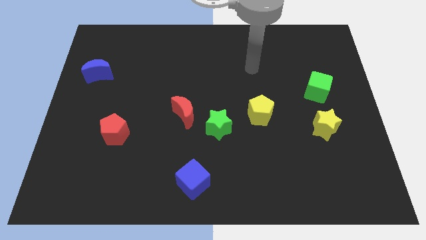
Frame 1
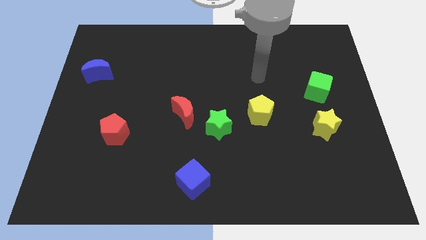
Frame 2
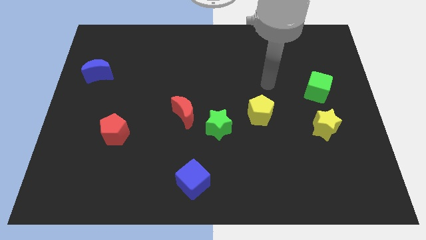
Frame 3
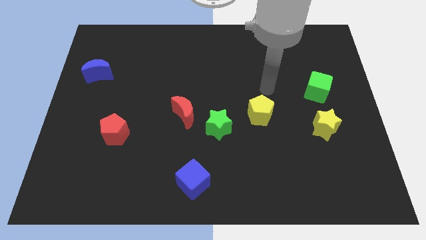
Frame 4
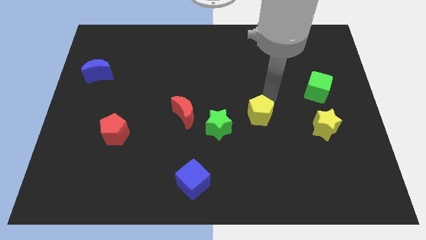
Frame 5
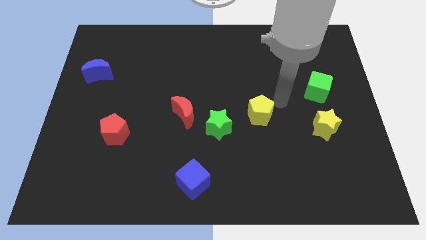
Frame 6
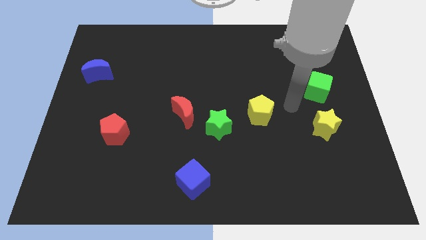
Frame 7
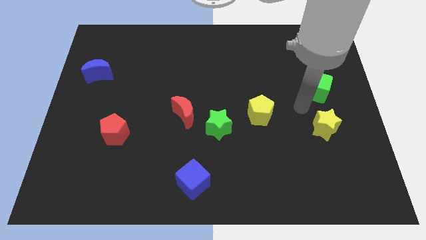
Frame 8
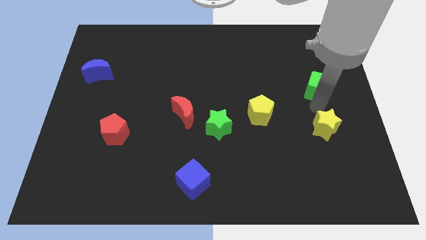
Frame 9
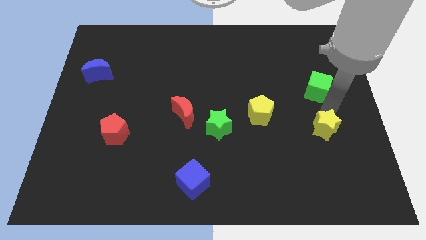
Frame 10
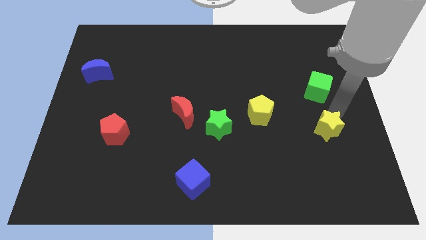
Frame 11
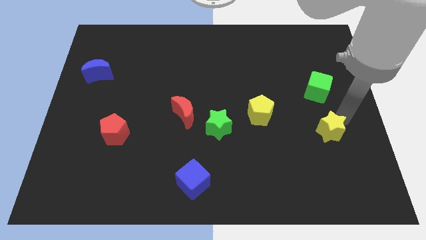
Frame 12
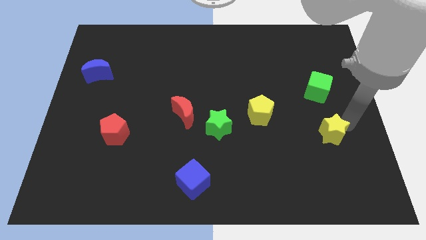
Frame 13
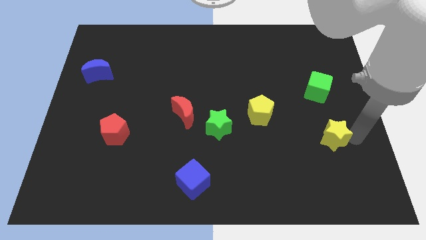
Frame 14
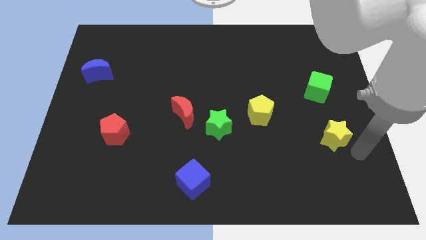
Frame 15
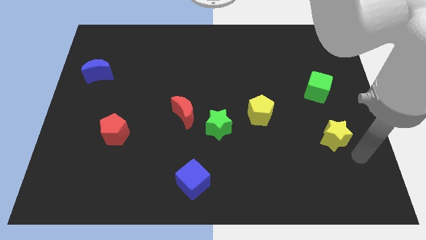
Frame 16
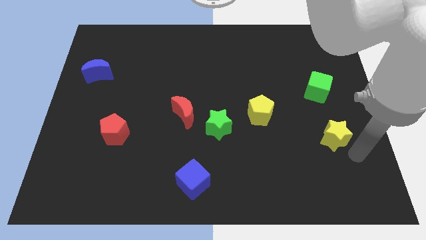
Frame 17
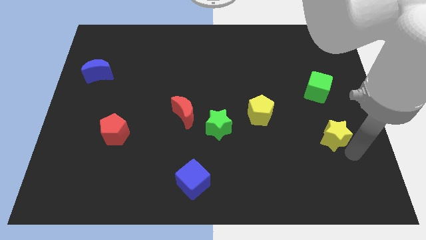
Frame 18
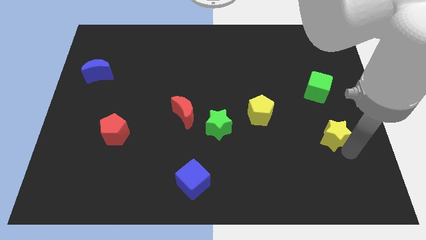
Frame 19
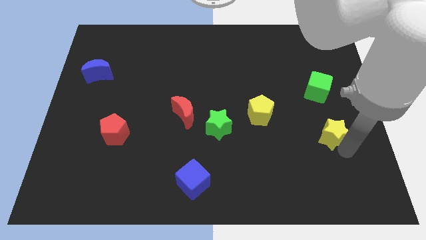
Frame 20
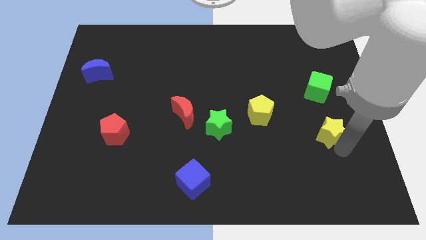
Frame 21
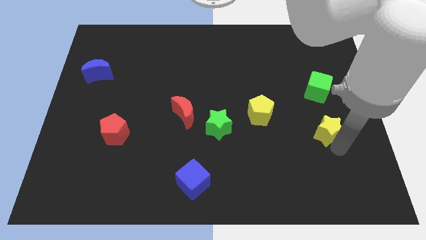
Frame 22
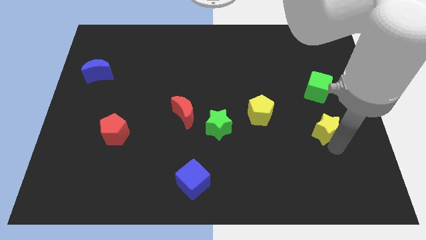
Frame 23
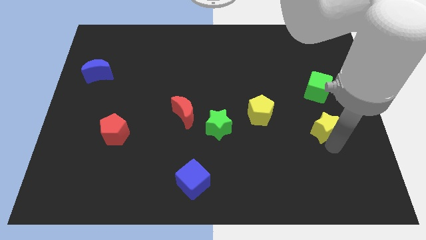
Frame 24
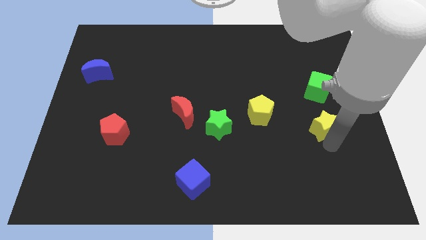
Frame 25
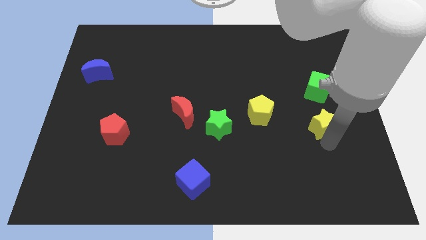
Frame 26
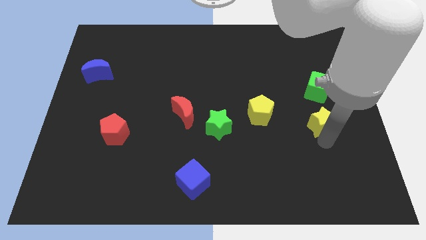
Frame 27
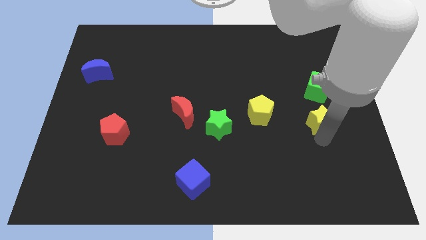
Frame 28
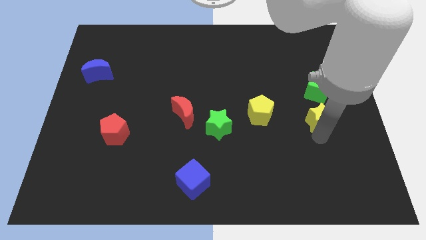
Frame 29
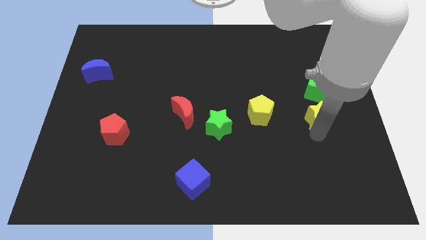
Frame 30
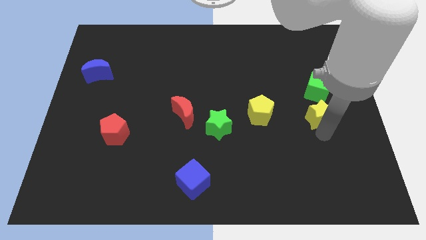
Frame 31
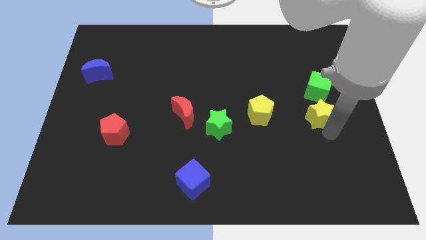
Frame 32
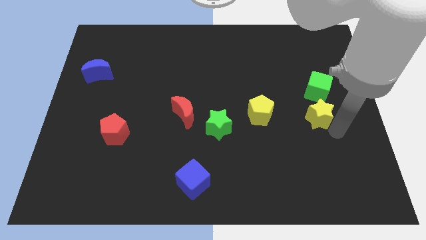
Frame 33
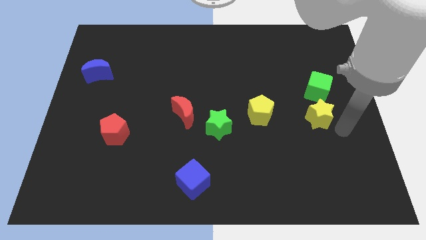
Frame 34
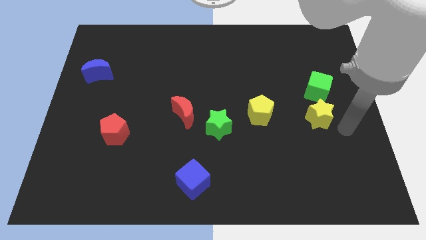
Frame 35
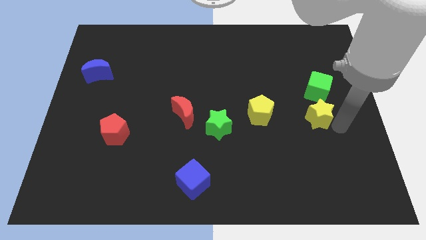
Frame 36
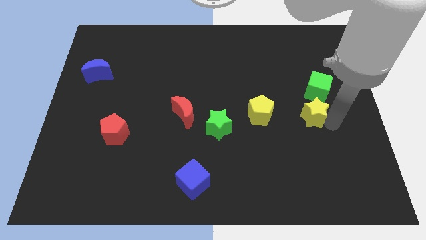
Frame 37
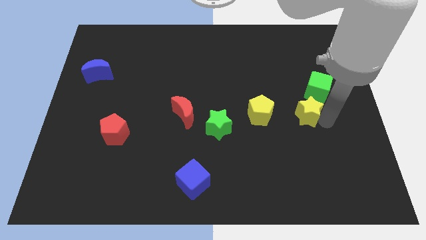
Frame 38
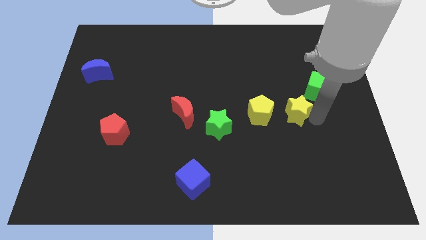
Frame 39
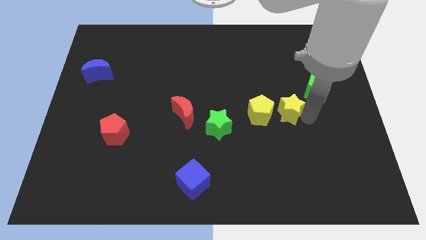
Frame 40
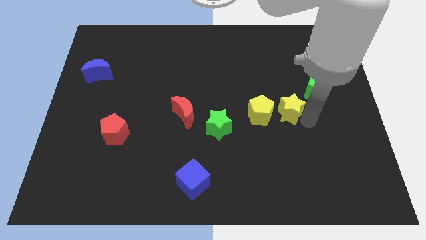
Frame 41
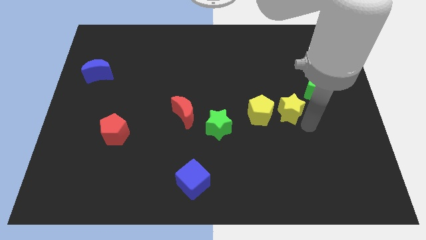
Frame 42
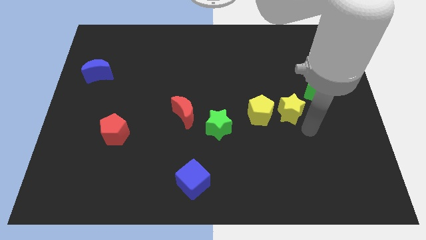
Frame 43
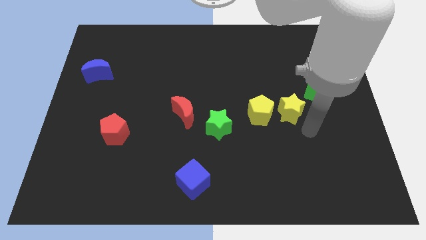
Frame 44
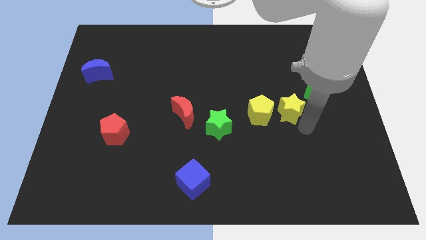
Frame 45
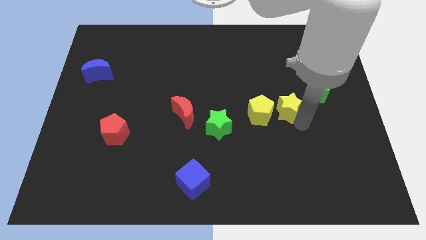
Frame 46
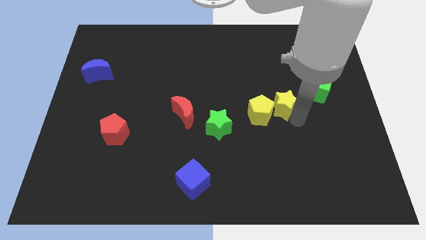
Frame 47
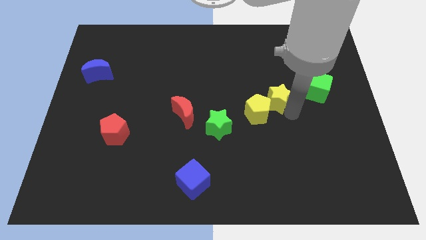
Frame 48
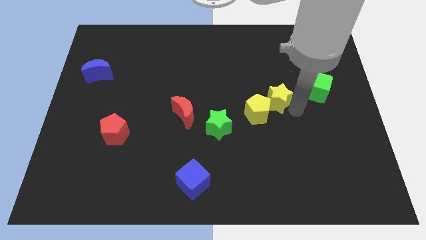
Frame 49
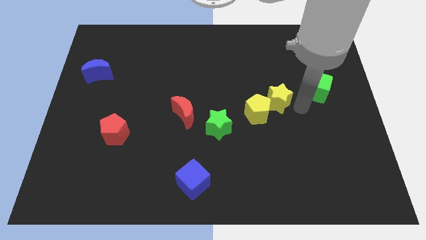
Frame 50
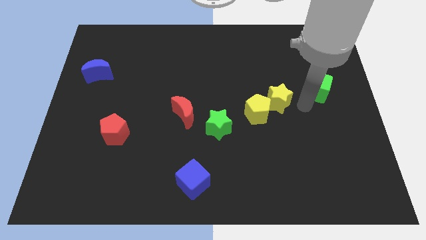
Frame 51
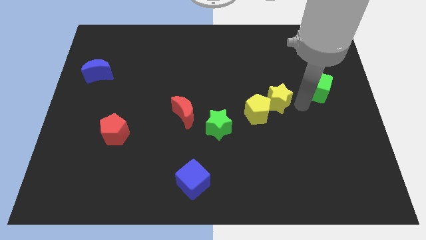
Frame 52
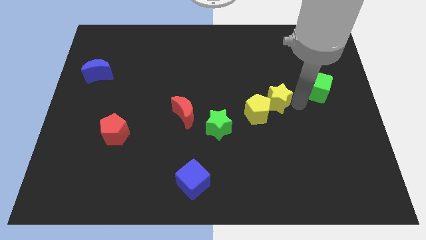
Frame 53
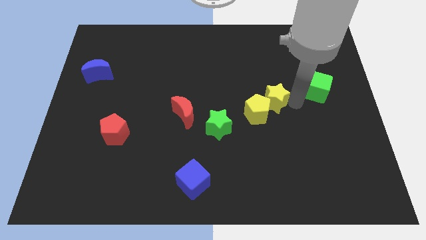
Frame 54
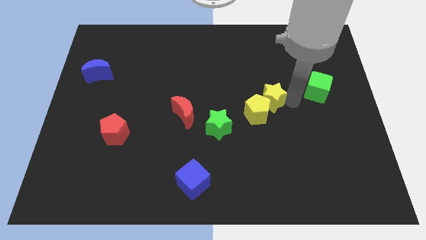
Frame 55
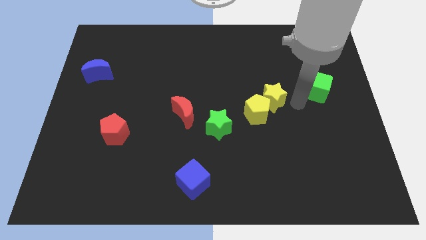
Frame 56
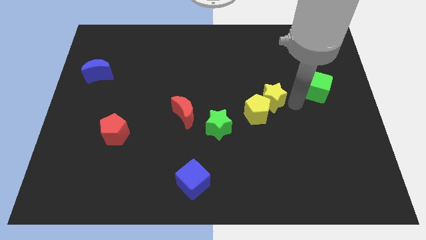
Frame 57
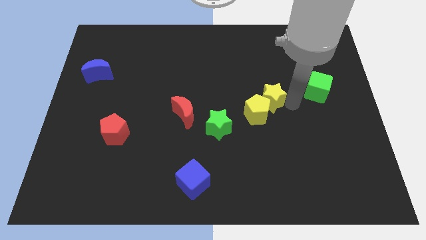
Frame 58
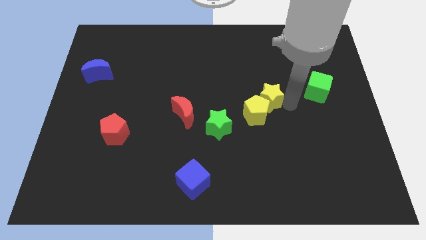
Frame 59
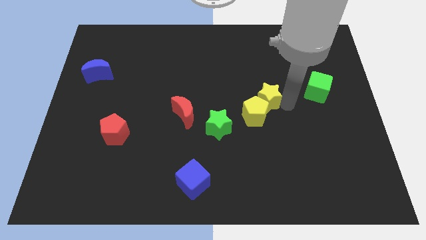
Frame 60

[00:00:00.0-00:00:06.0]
slide the yellow star to the middle of the board
